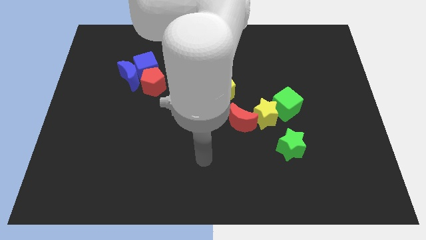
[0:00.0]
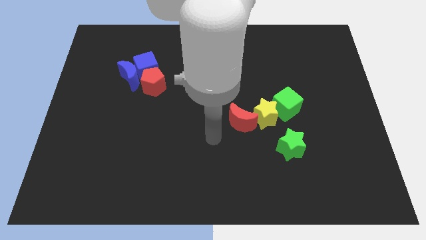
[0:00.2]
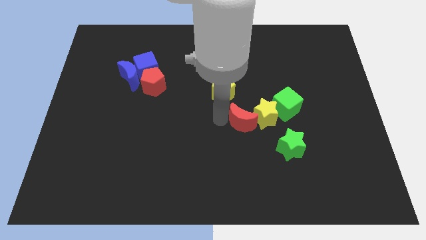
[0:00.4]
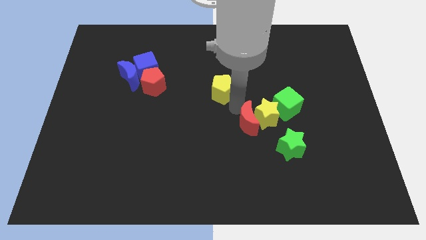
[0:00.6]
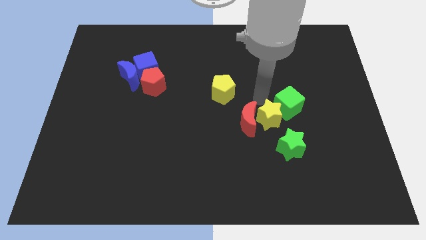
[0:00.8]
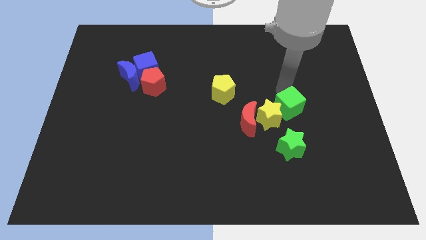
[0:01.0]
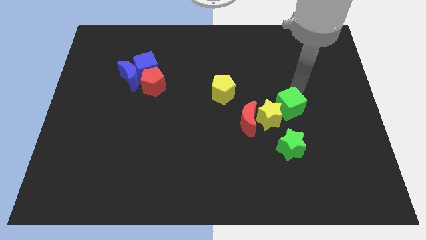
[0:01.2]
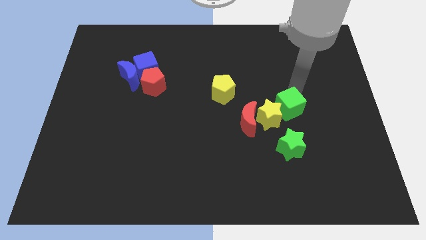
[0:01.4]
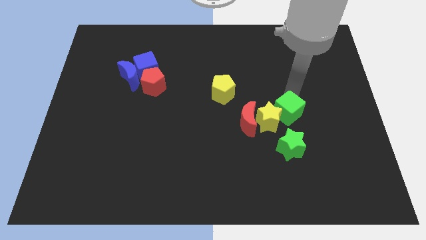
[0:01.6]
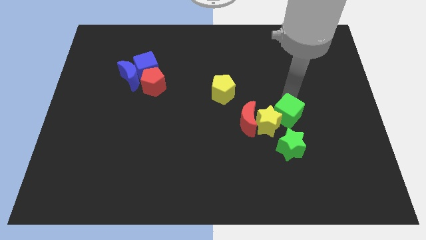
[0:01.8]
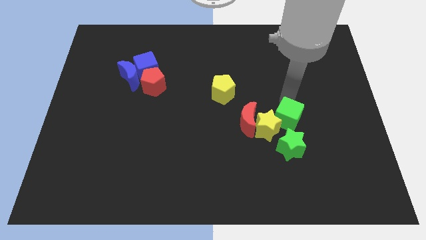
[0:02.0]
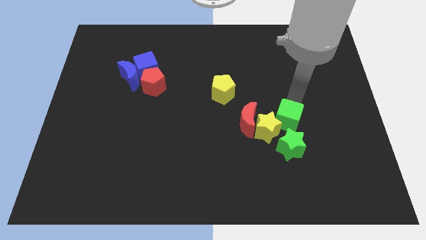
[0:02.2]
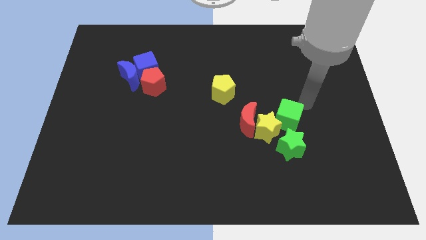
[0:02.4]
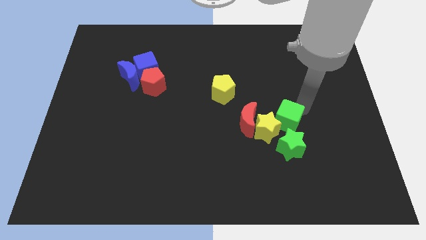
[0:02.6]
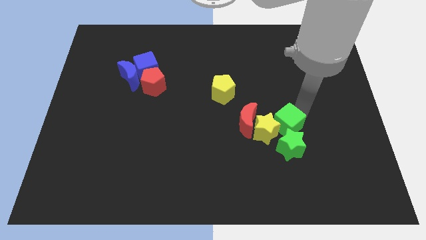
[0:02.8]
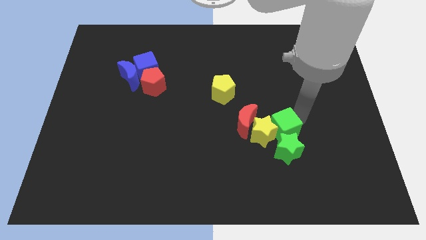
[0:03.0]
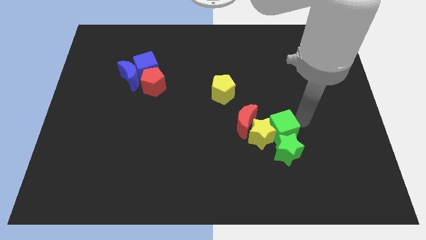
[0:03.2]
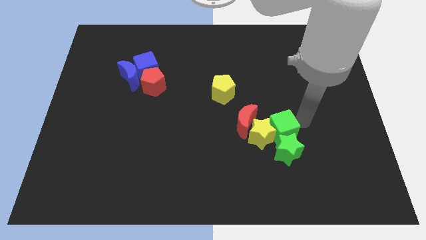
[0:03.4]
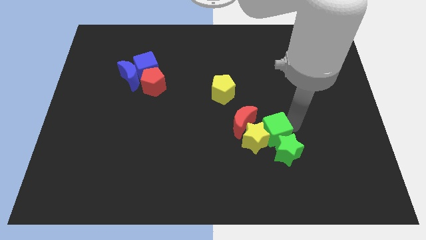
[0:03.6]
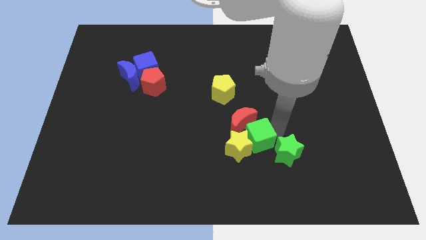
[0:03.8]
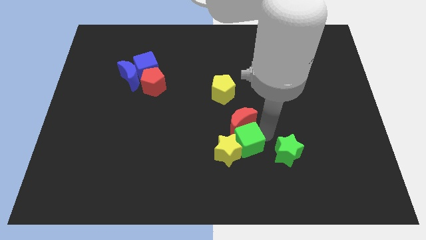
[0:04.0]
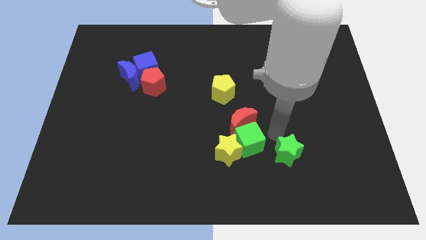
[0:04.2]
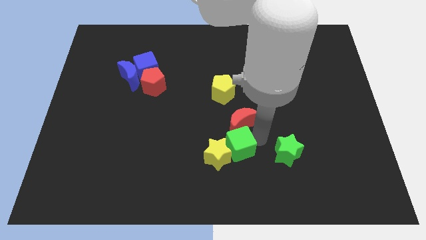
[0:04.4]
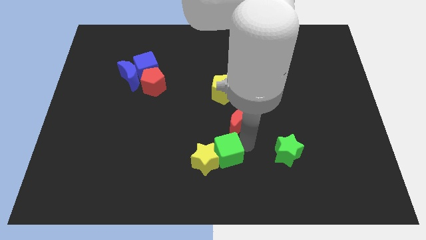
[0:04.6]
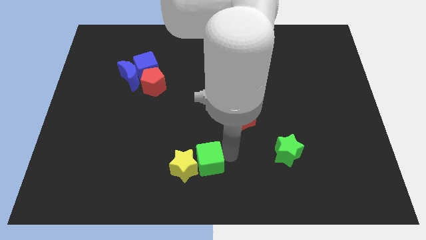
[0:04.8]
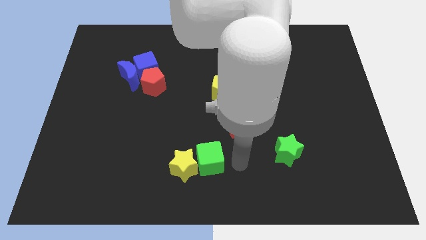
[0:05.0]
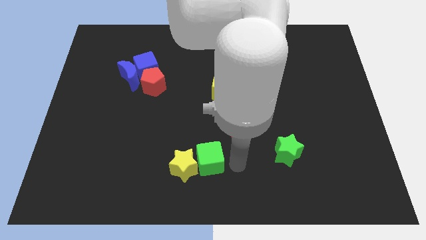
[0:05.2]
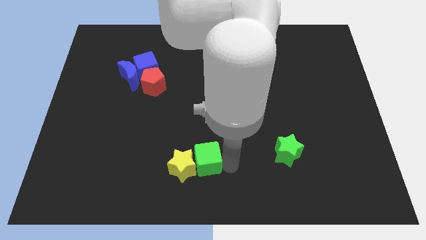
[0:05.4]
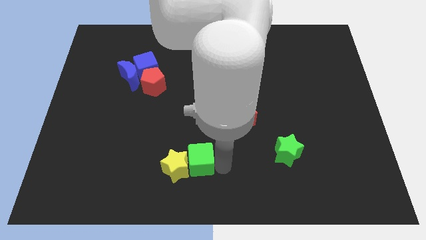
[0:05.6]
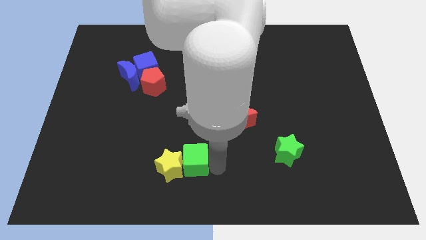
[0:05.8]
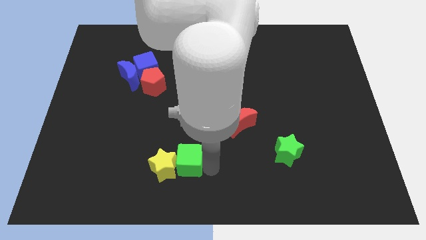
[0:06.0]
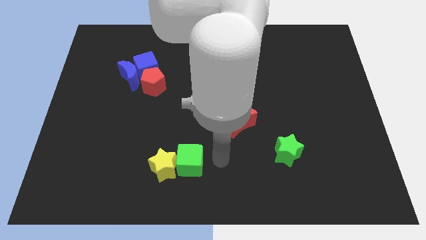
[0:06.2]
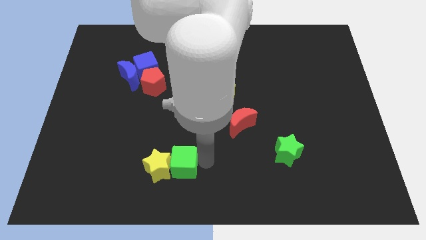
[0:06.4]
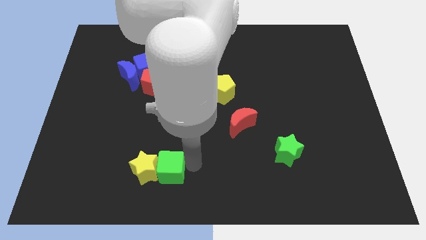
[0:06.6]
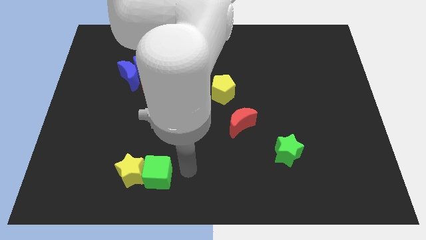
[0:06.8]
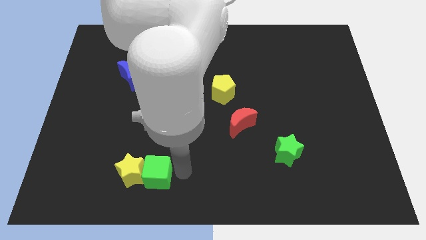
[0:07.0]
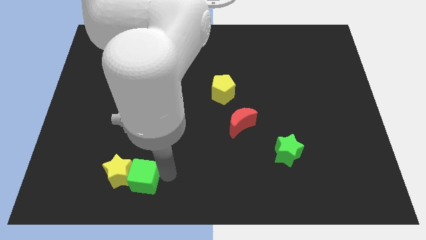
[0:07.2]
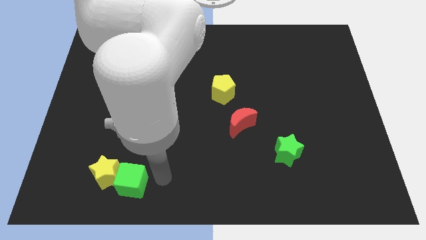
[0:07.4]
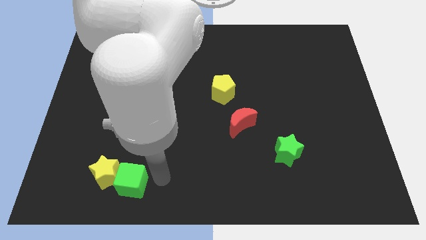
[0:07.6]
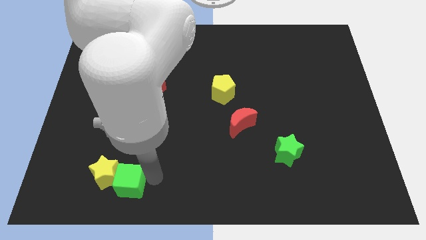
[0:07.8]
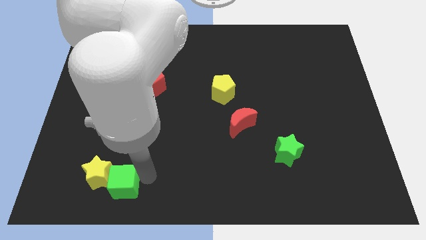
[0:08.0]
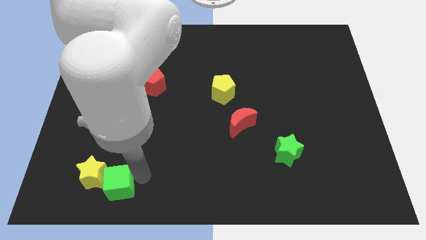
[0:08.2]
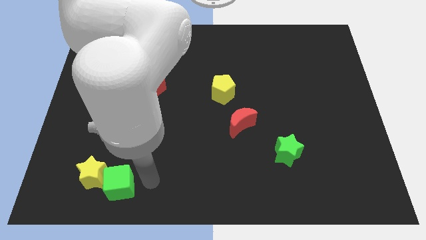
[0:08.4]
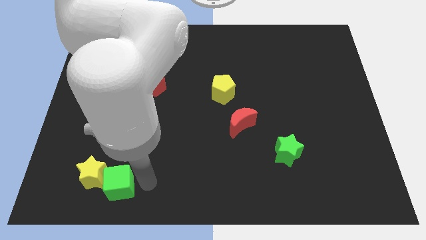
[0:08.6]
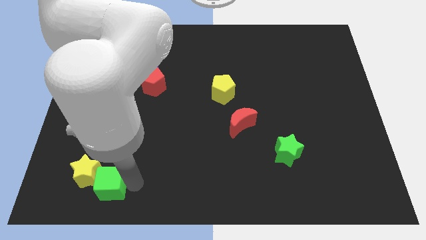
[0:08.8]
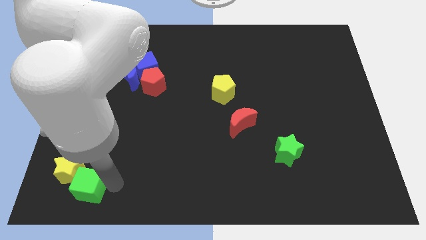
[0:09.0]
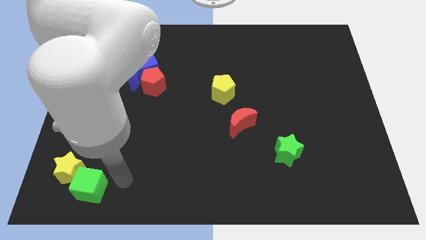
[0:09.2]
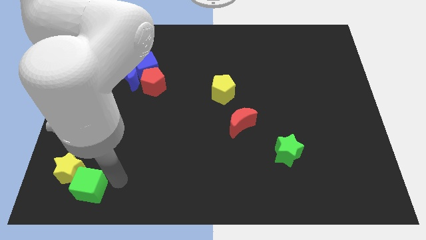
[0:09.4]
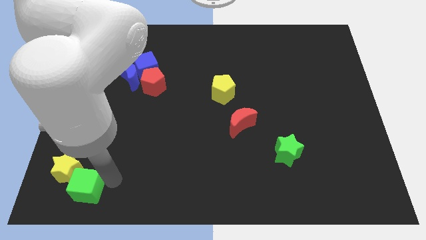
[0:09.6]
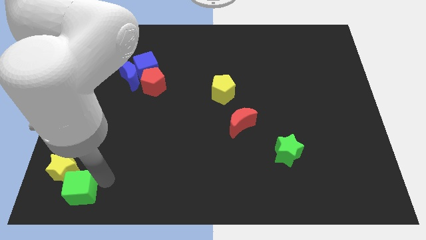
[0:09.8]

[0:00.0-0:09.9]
slide the green cube to the bottom left corner

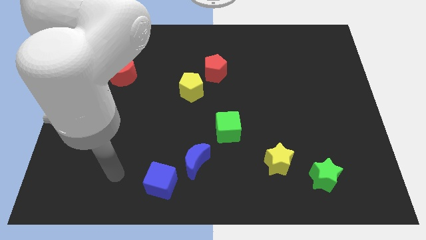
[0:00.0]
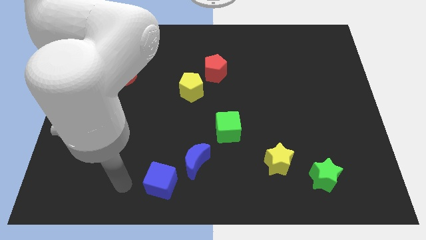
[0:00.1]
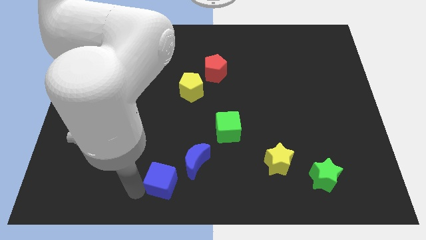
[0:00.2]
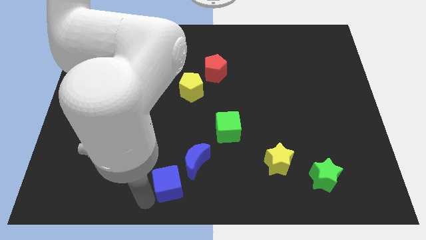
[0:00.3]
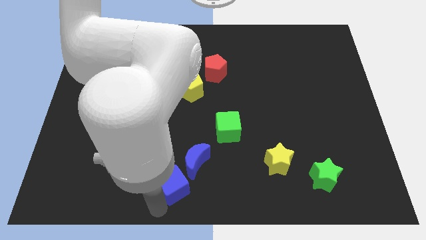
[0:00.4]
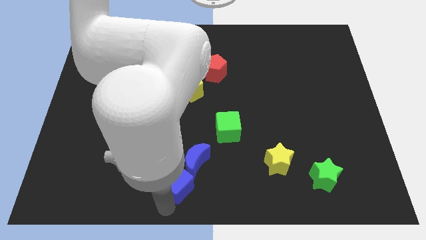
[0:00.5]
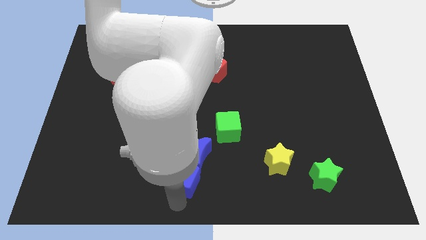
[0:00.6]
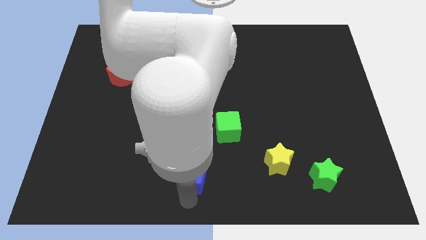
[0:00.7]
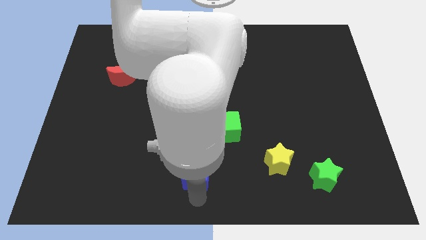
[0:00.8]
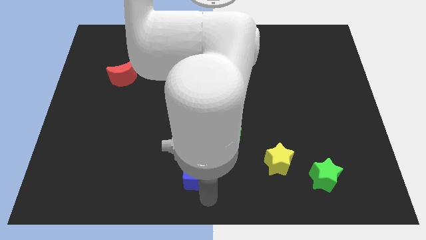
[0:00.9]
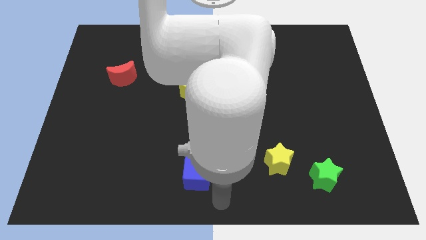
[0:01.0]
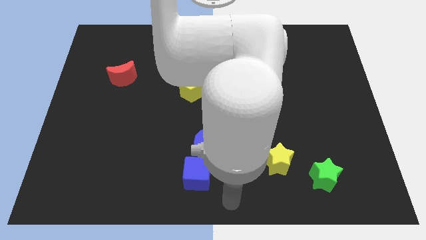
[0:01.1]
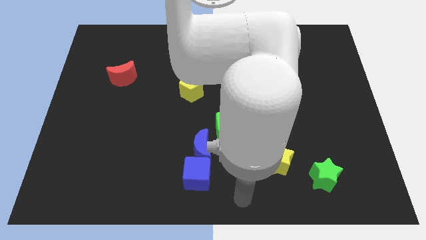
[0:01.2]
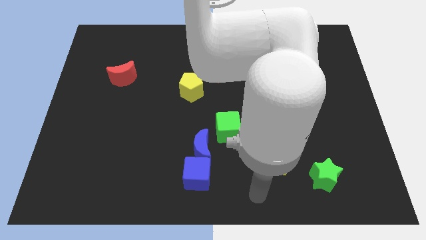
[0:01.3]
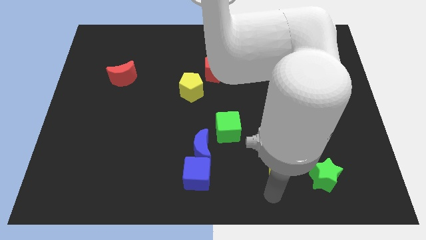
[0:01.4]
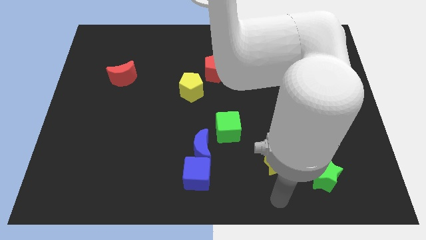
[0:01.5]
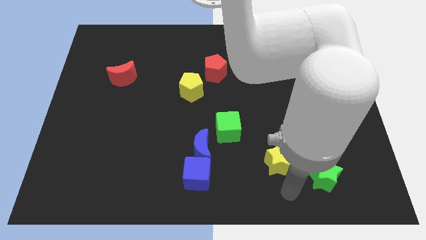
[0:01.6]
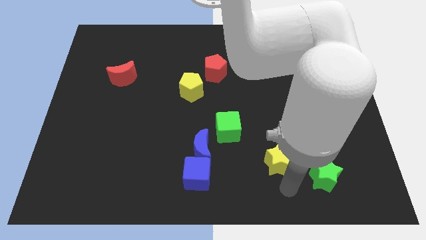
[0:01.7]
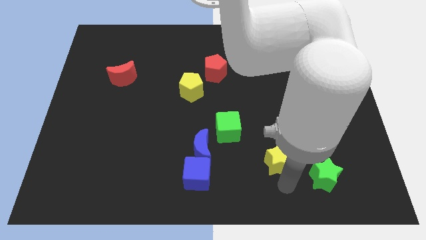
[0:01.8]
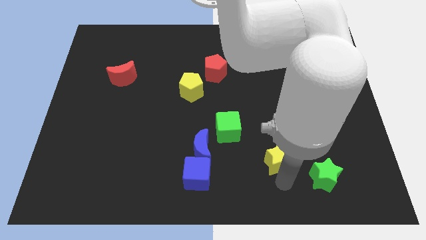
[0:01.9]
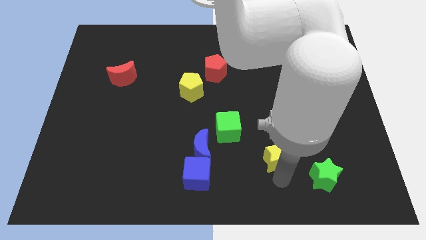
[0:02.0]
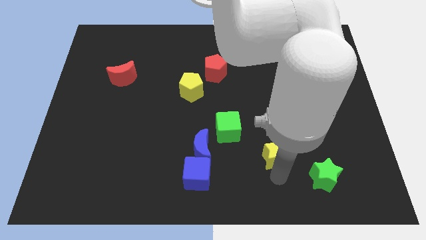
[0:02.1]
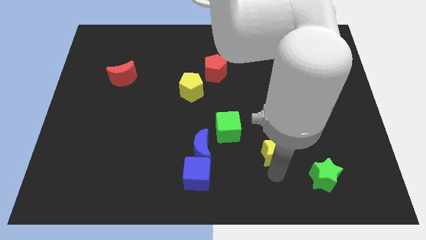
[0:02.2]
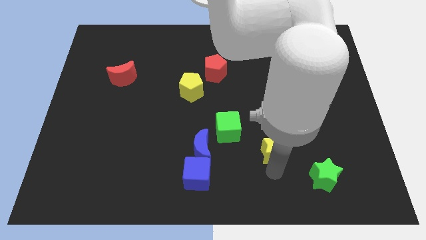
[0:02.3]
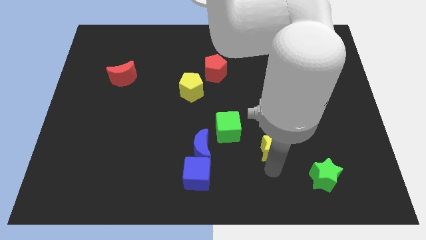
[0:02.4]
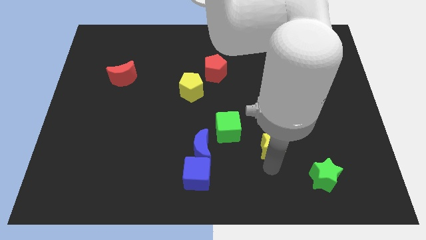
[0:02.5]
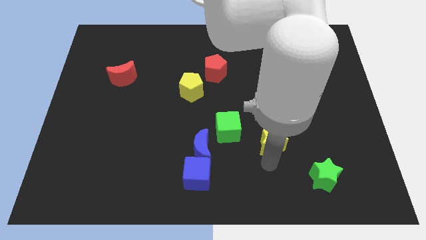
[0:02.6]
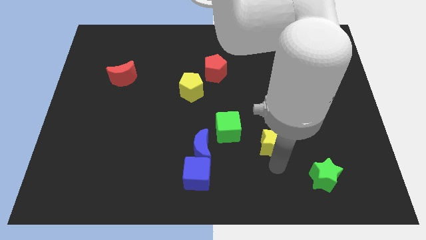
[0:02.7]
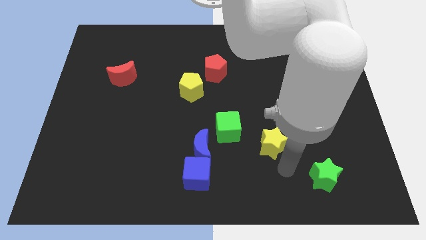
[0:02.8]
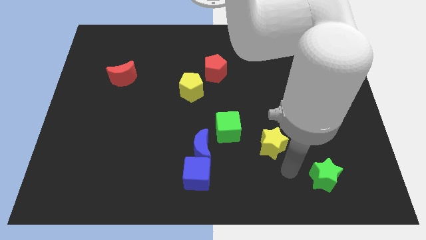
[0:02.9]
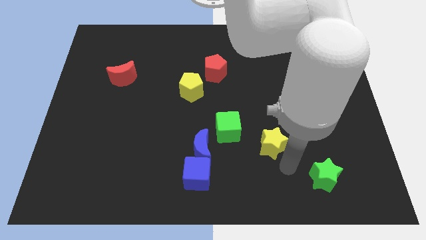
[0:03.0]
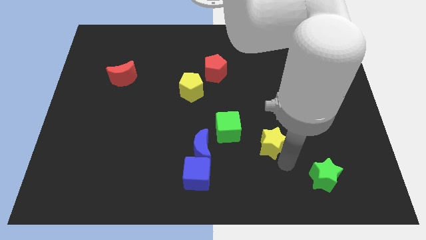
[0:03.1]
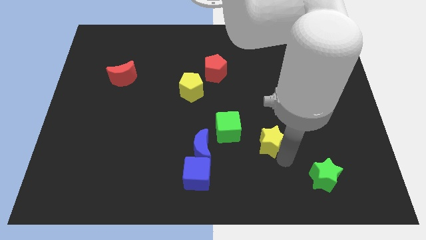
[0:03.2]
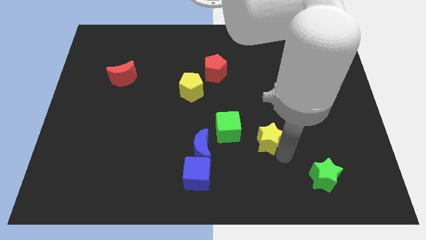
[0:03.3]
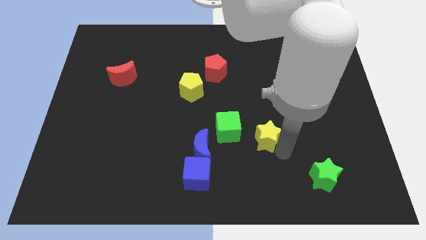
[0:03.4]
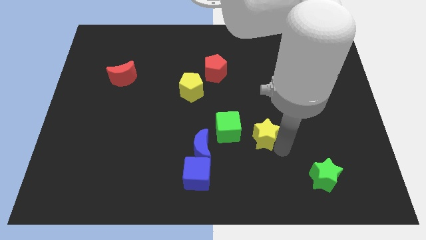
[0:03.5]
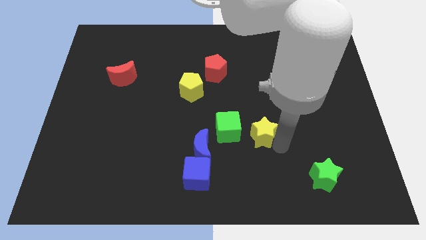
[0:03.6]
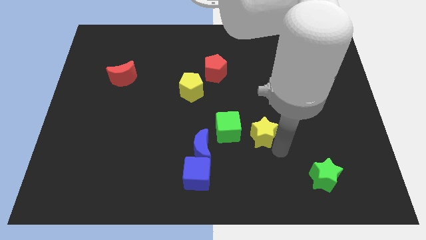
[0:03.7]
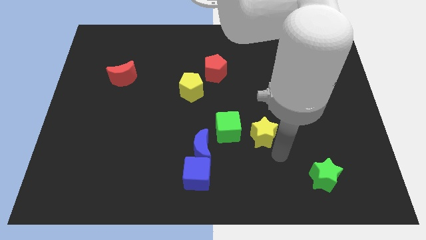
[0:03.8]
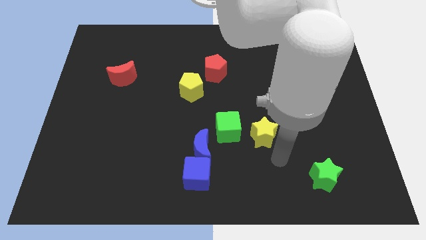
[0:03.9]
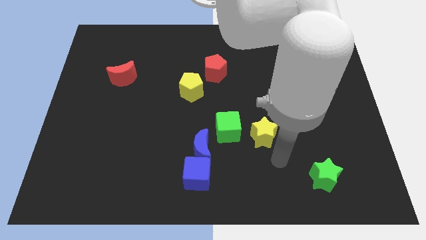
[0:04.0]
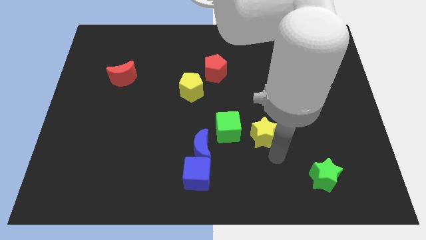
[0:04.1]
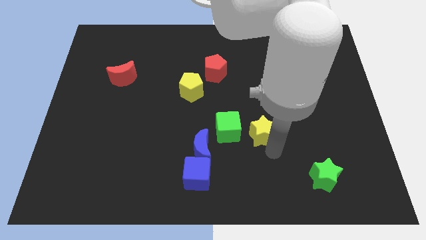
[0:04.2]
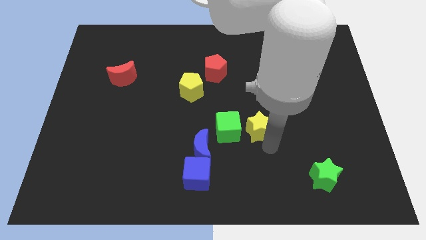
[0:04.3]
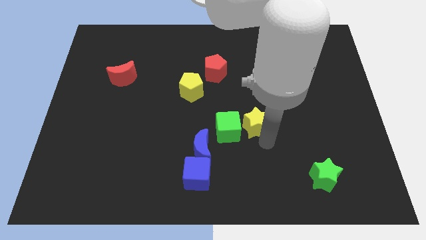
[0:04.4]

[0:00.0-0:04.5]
slide the yellow star to the middle of the board
